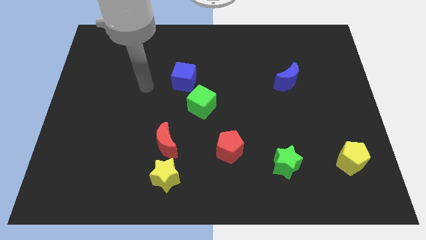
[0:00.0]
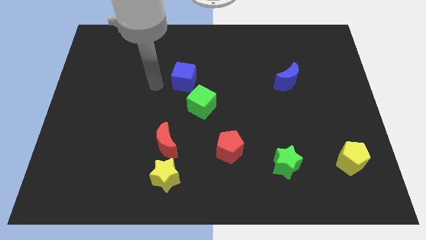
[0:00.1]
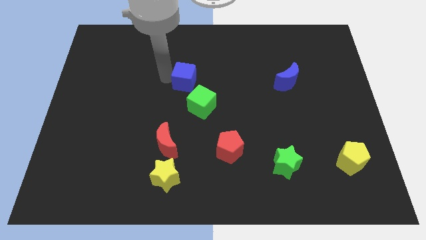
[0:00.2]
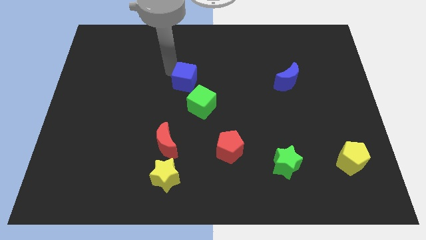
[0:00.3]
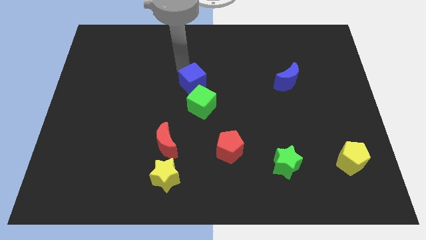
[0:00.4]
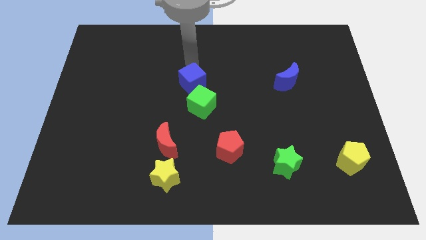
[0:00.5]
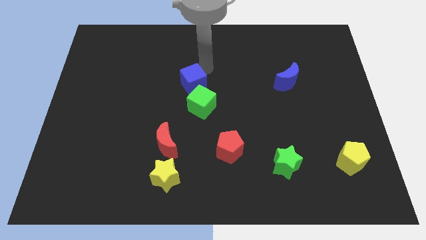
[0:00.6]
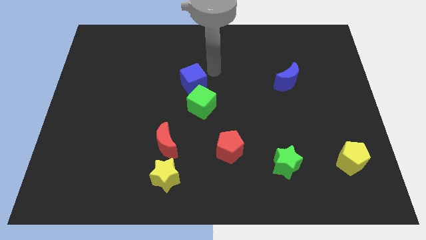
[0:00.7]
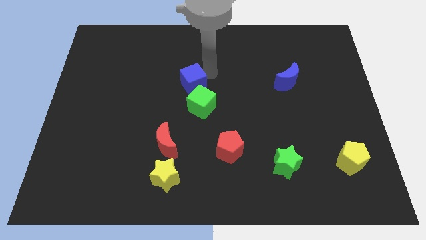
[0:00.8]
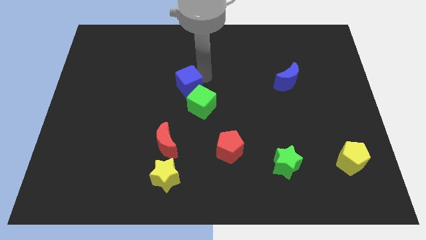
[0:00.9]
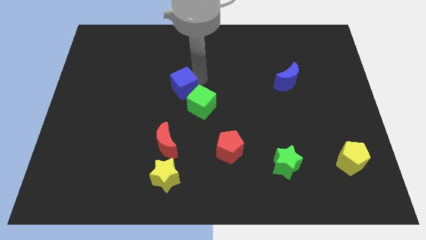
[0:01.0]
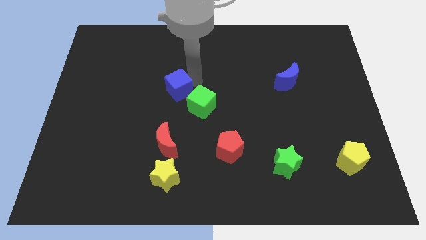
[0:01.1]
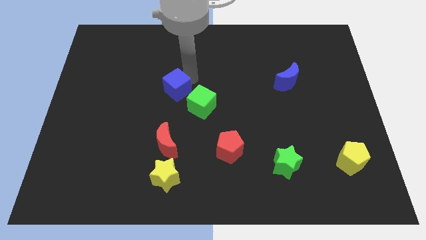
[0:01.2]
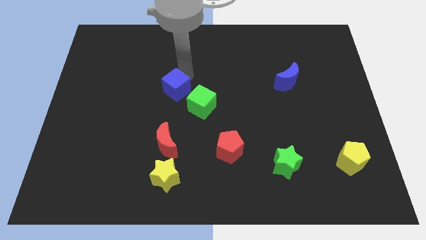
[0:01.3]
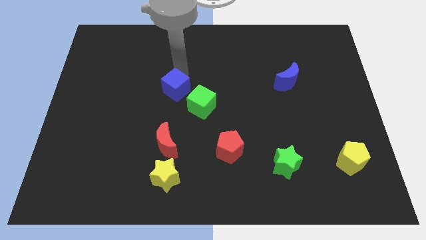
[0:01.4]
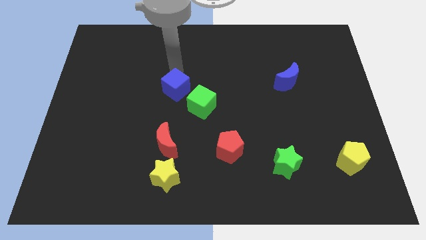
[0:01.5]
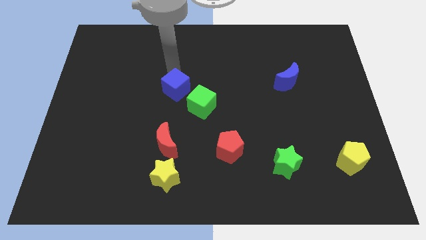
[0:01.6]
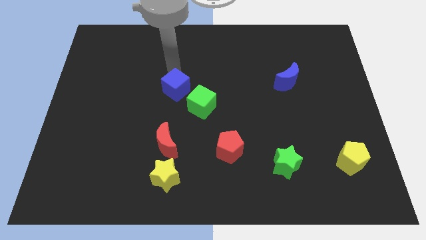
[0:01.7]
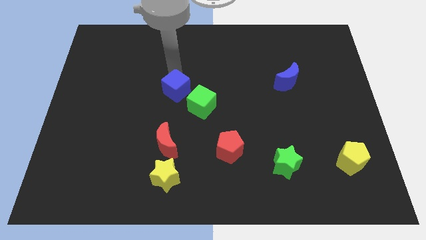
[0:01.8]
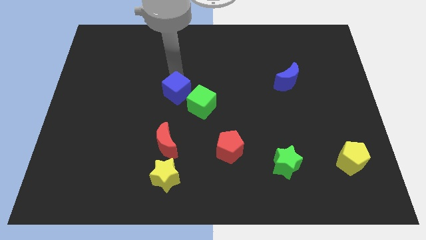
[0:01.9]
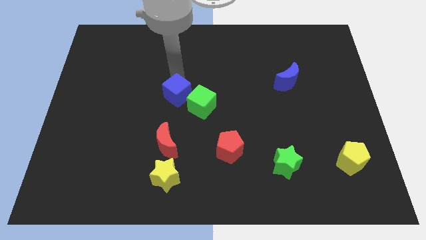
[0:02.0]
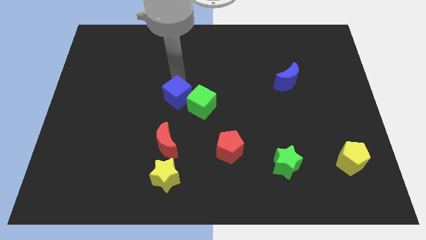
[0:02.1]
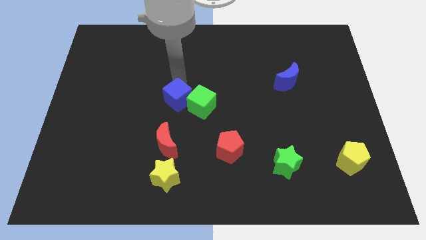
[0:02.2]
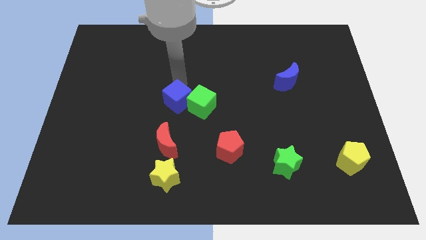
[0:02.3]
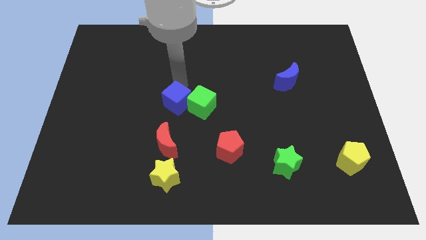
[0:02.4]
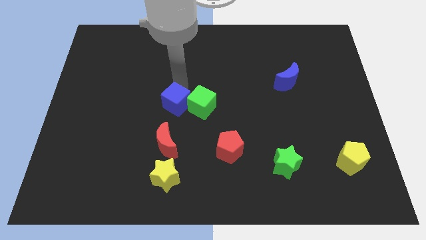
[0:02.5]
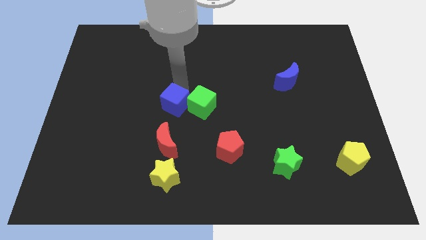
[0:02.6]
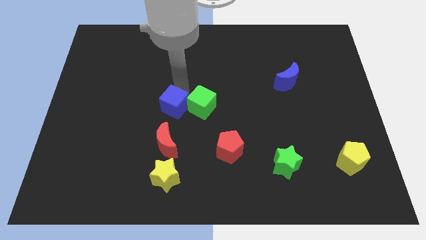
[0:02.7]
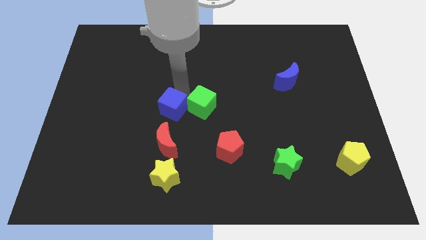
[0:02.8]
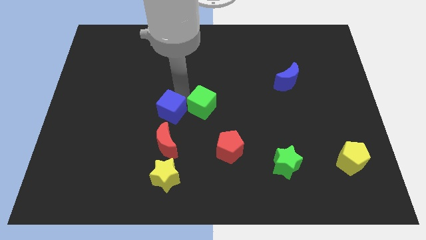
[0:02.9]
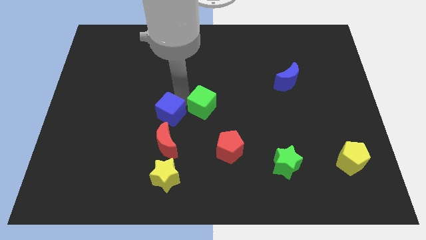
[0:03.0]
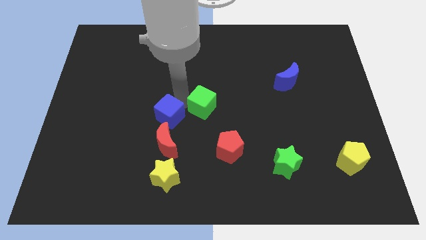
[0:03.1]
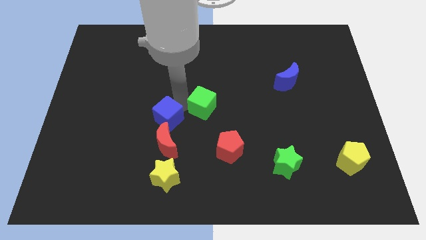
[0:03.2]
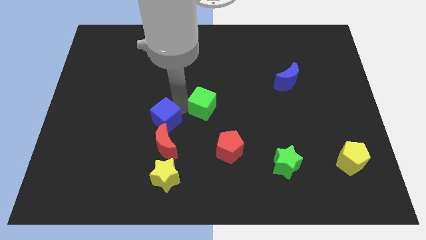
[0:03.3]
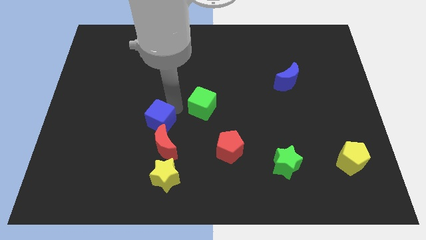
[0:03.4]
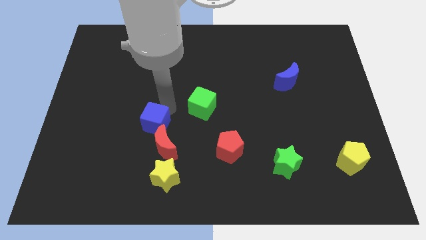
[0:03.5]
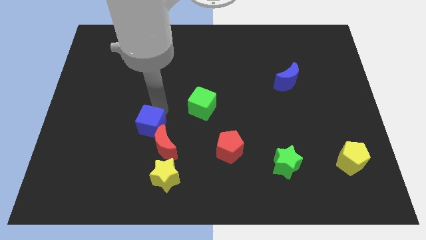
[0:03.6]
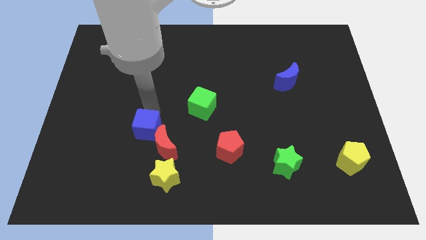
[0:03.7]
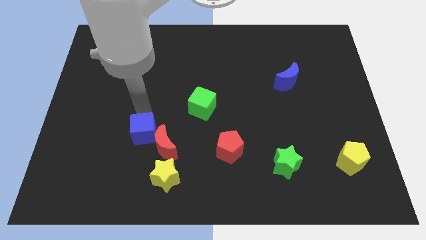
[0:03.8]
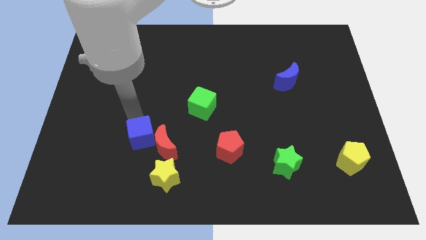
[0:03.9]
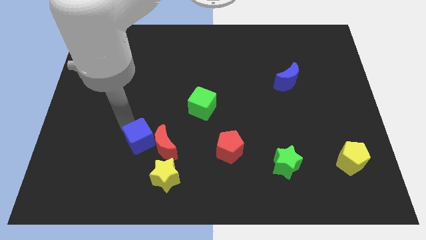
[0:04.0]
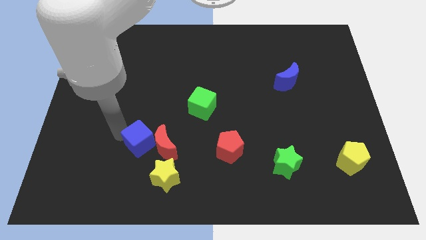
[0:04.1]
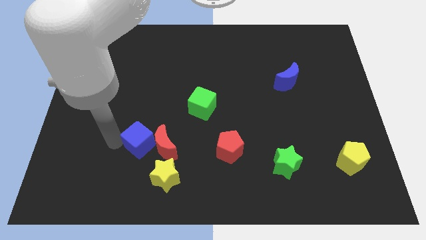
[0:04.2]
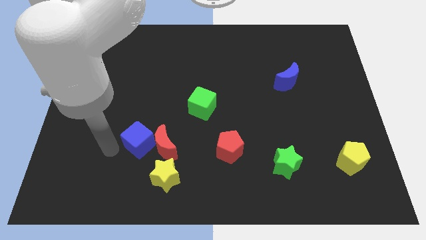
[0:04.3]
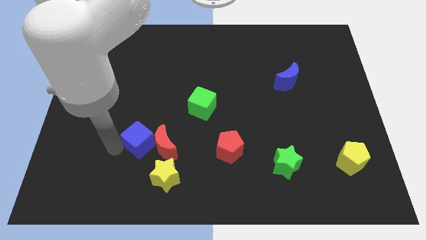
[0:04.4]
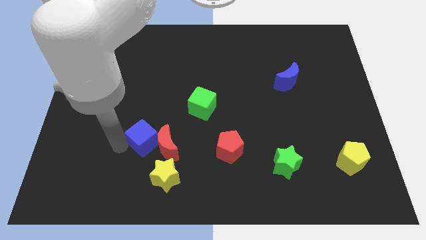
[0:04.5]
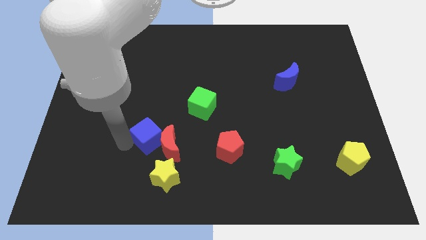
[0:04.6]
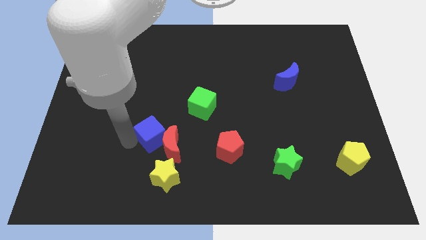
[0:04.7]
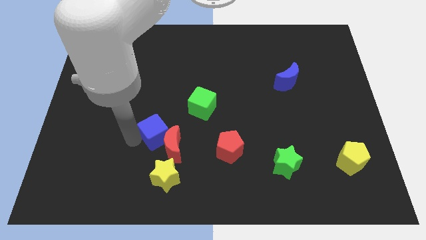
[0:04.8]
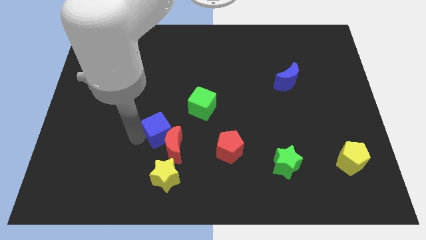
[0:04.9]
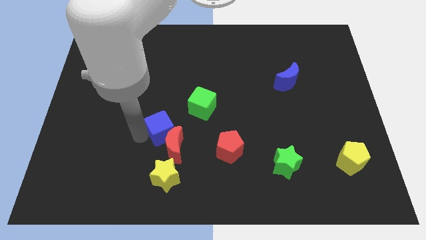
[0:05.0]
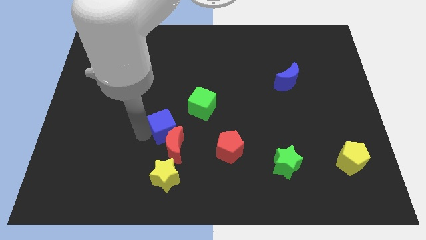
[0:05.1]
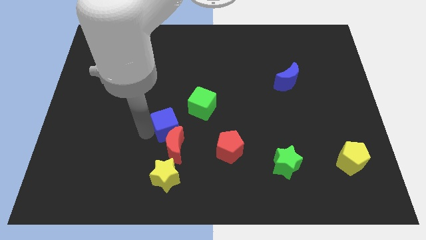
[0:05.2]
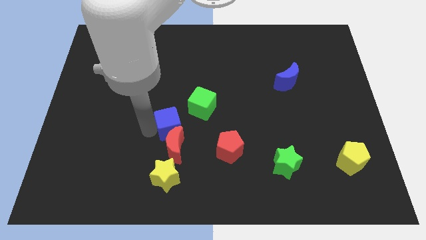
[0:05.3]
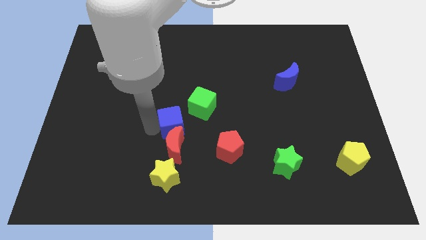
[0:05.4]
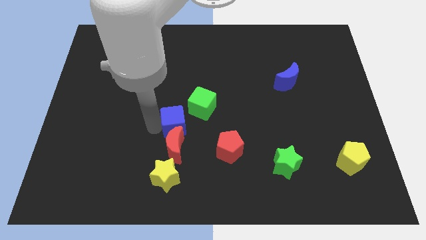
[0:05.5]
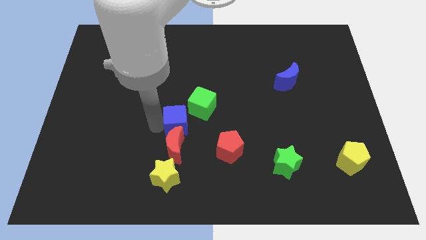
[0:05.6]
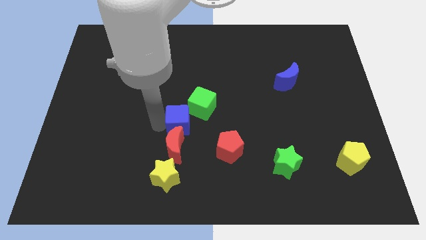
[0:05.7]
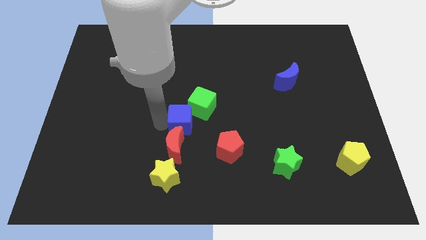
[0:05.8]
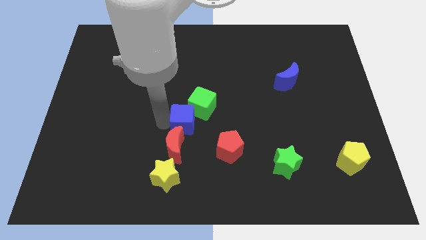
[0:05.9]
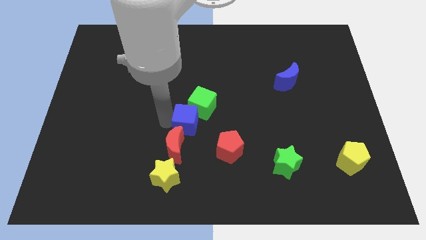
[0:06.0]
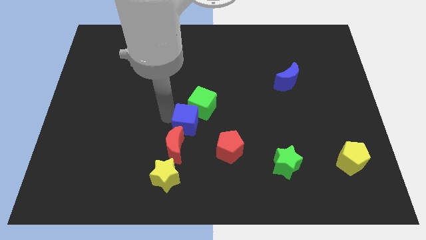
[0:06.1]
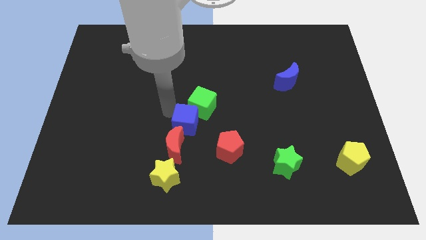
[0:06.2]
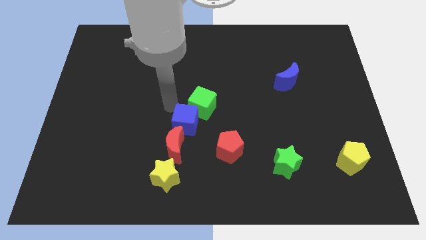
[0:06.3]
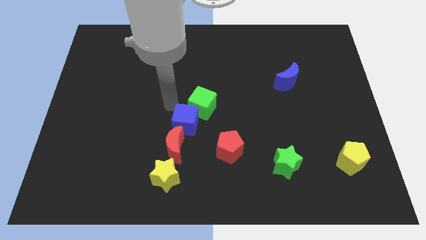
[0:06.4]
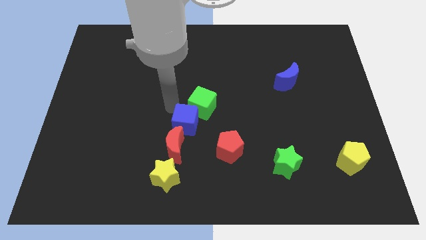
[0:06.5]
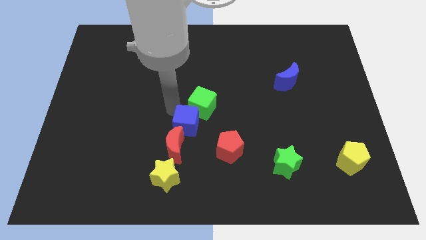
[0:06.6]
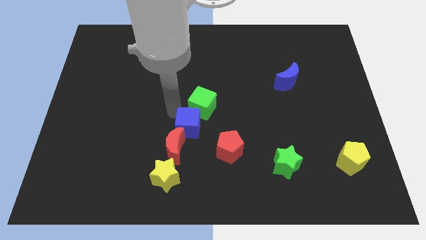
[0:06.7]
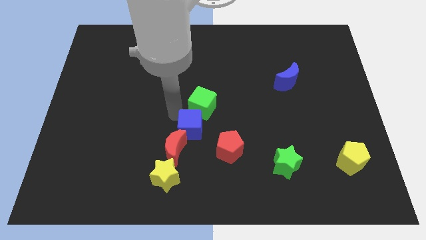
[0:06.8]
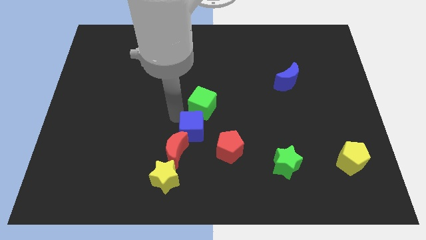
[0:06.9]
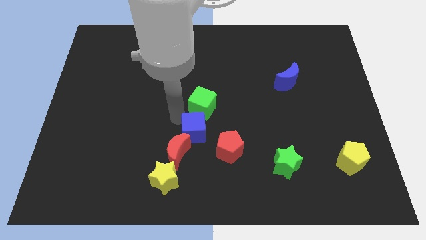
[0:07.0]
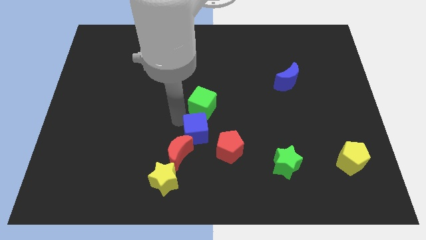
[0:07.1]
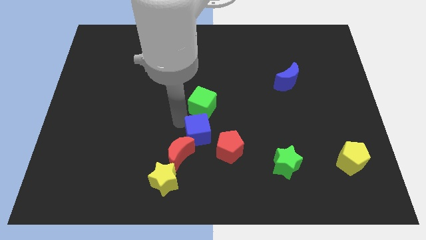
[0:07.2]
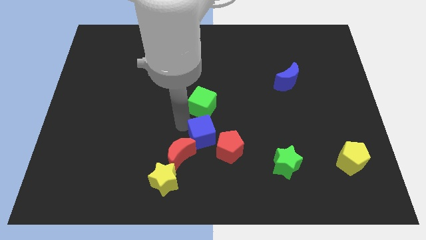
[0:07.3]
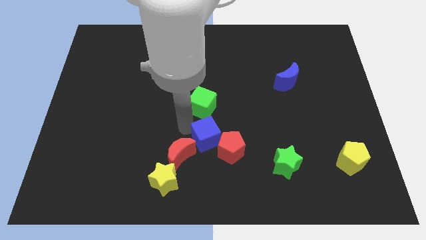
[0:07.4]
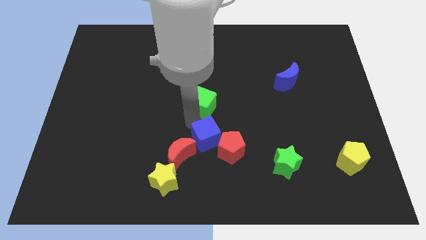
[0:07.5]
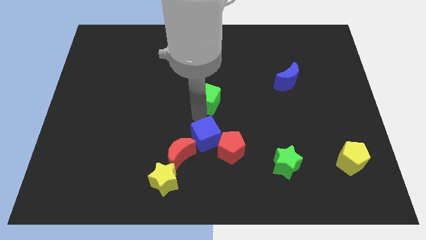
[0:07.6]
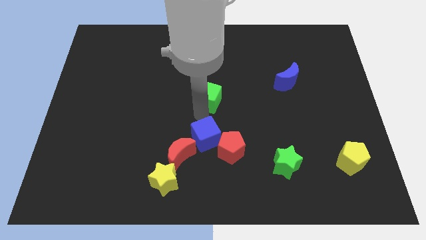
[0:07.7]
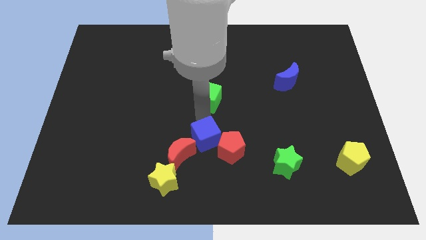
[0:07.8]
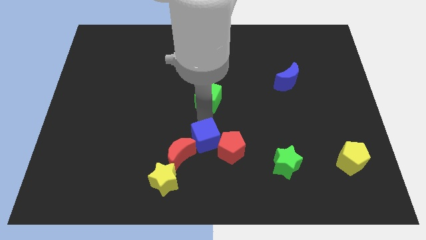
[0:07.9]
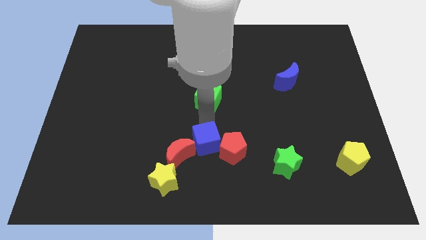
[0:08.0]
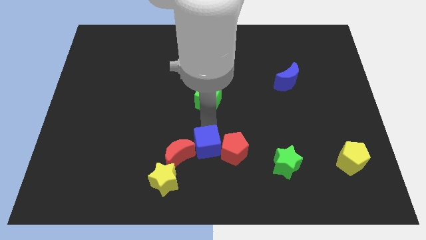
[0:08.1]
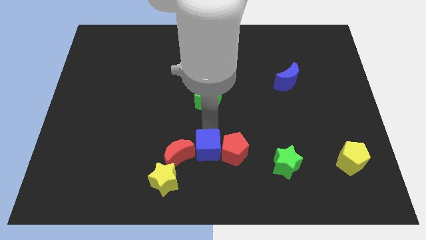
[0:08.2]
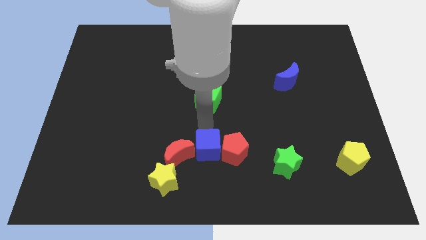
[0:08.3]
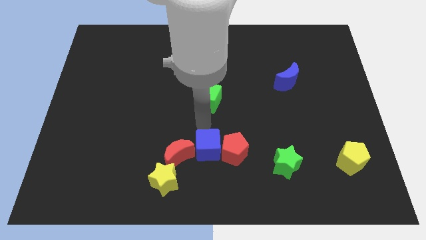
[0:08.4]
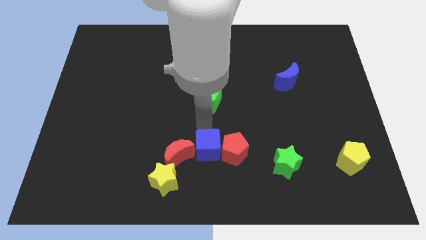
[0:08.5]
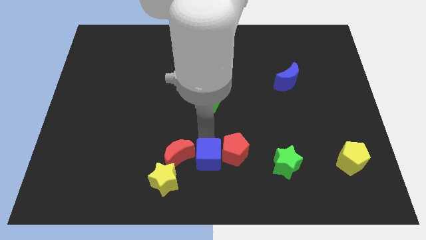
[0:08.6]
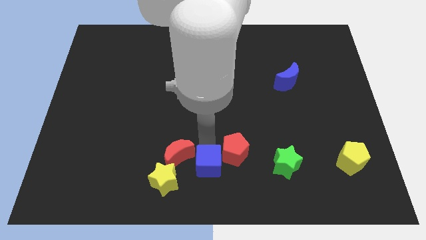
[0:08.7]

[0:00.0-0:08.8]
slide the blue cube to the right side of the yellow star
